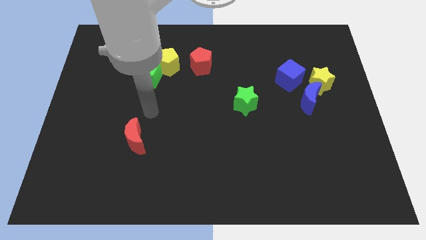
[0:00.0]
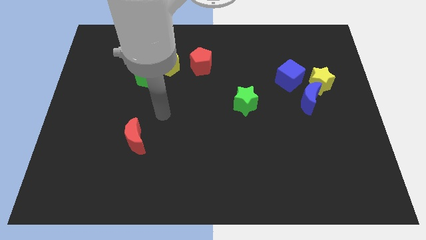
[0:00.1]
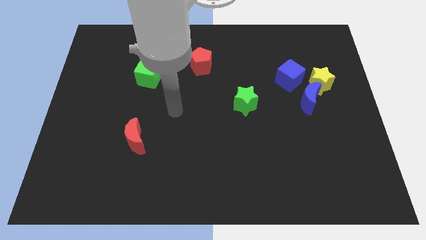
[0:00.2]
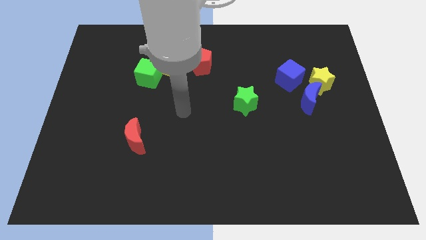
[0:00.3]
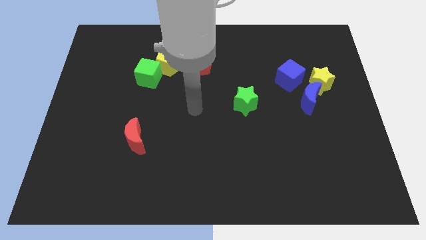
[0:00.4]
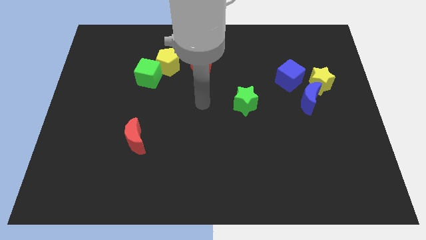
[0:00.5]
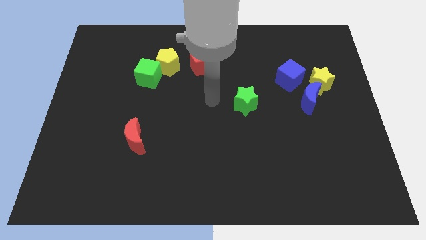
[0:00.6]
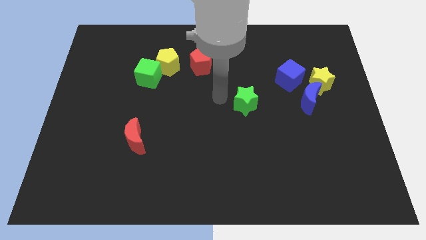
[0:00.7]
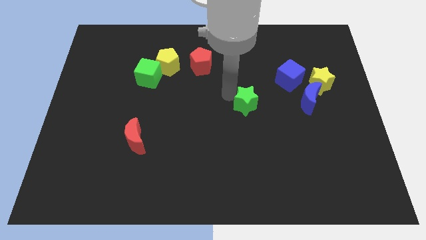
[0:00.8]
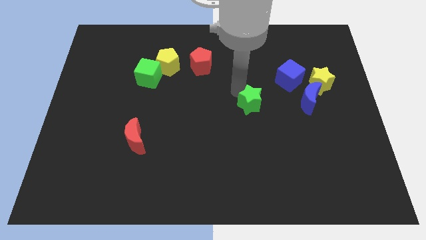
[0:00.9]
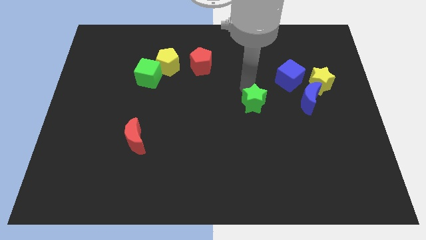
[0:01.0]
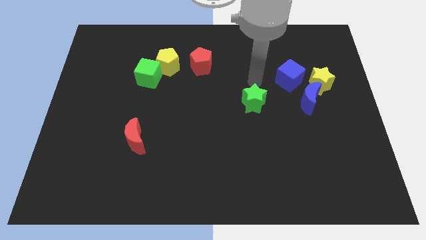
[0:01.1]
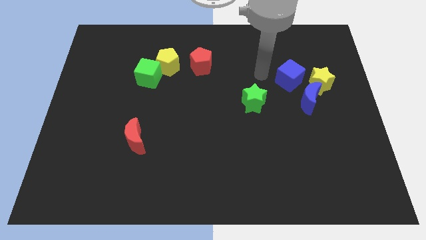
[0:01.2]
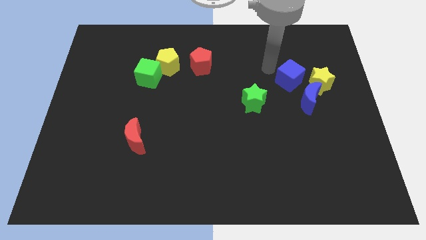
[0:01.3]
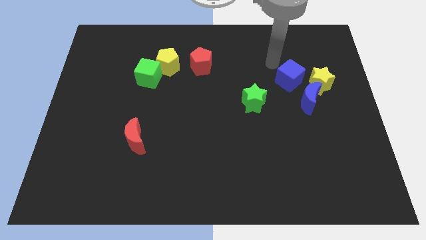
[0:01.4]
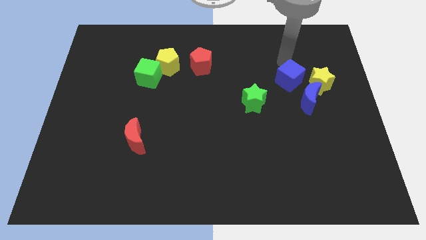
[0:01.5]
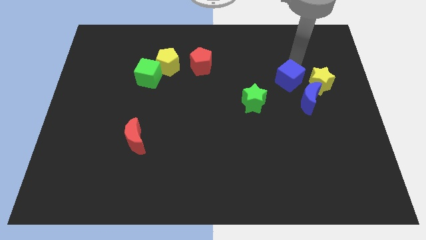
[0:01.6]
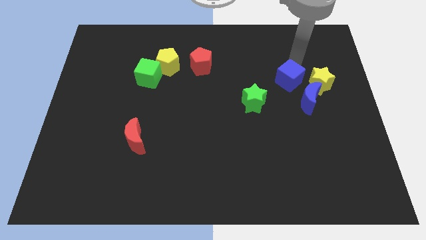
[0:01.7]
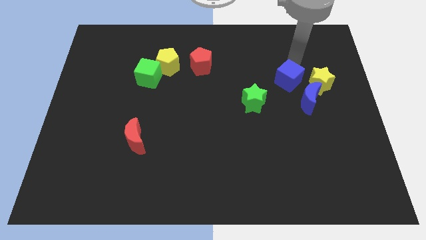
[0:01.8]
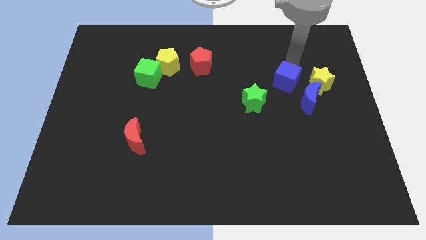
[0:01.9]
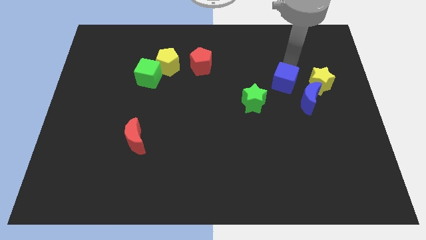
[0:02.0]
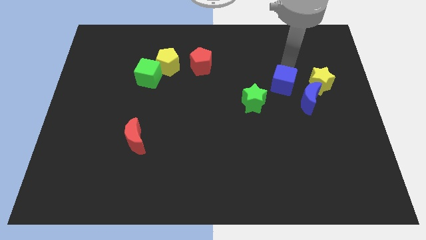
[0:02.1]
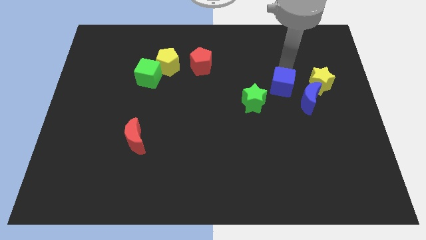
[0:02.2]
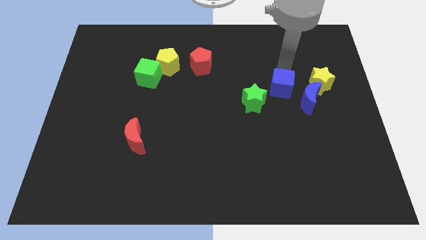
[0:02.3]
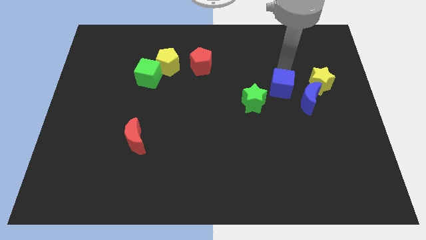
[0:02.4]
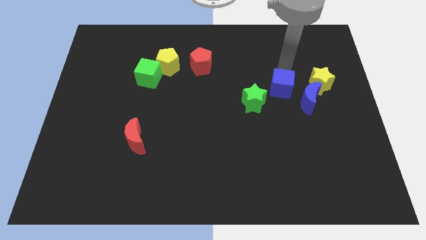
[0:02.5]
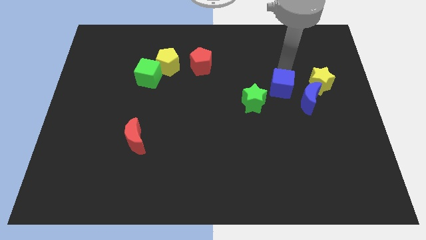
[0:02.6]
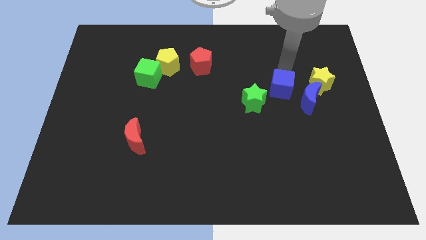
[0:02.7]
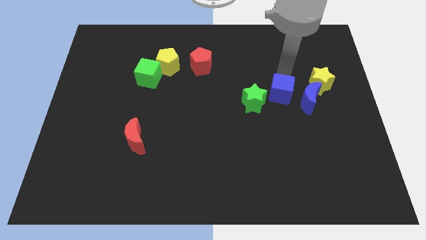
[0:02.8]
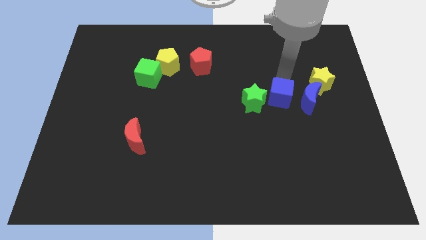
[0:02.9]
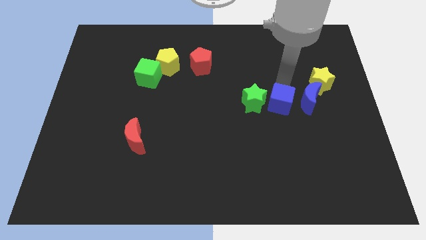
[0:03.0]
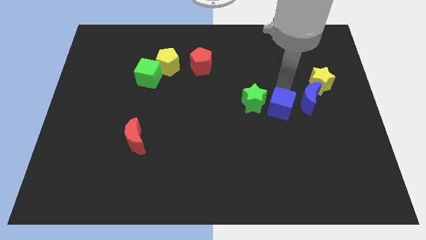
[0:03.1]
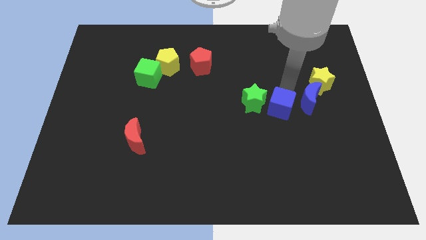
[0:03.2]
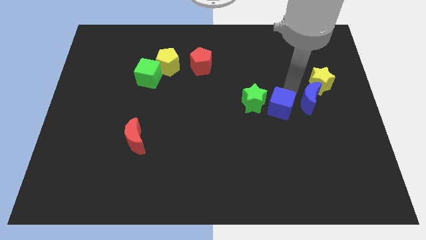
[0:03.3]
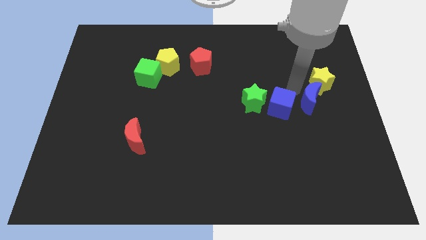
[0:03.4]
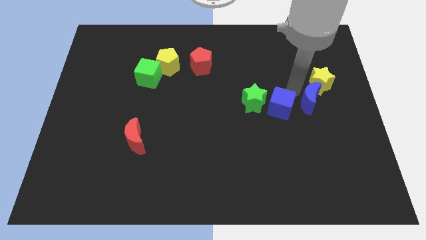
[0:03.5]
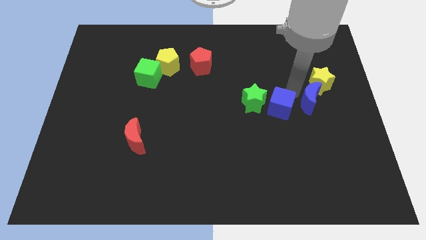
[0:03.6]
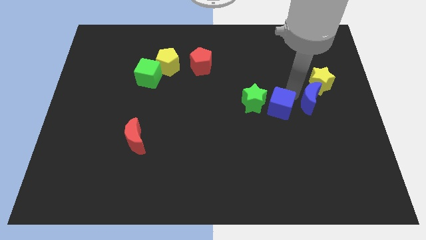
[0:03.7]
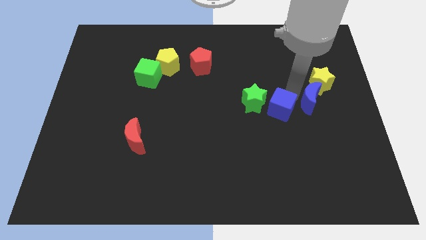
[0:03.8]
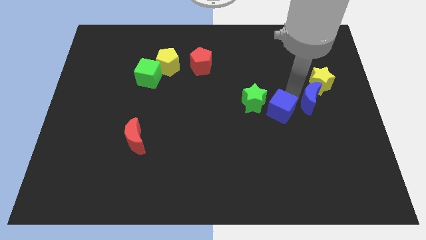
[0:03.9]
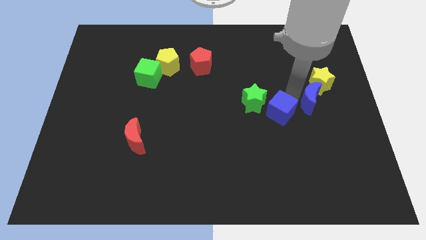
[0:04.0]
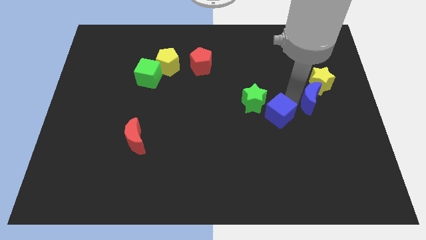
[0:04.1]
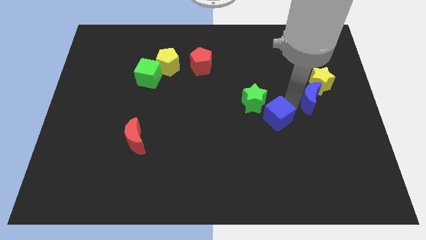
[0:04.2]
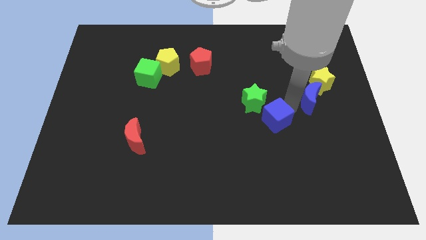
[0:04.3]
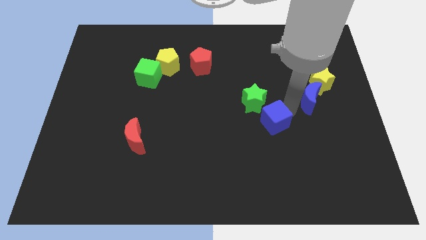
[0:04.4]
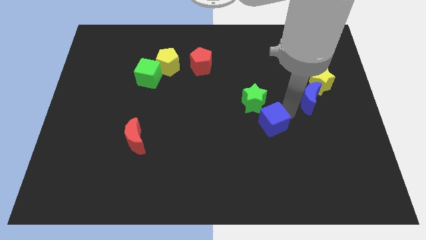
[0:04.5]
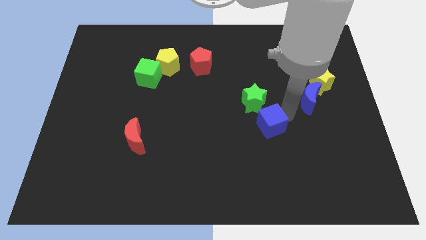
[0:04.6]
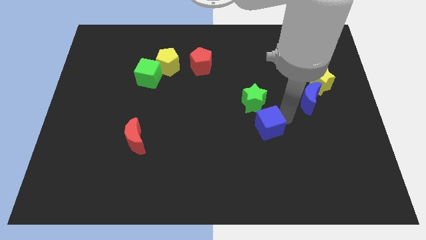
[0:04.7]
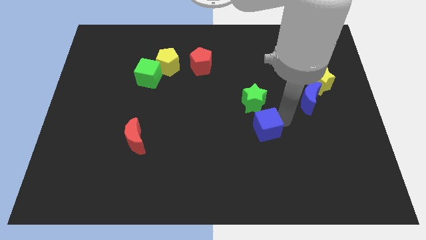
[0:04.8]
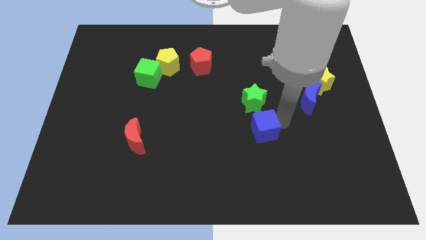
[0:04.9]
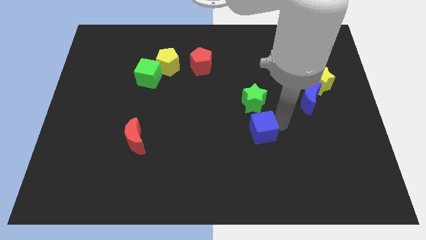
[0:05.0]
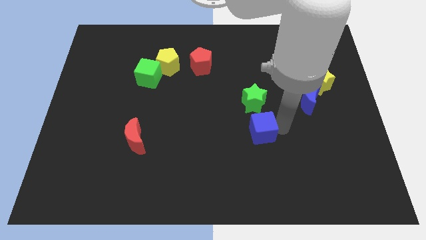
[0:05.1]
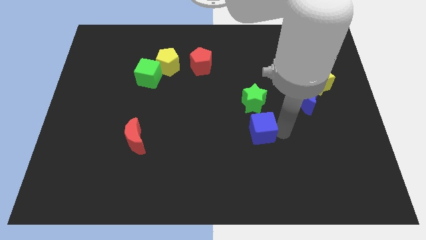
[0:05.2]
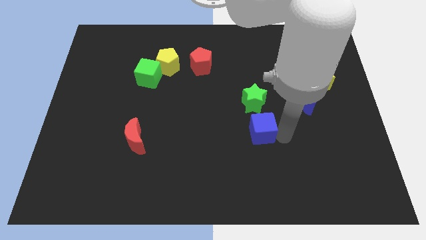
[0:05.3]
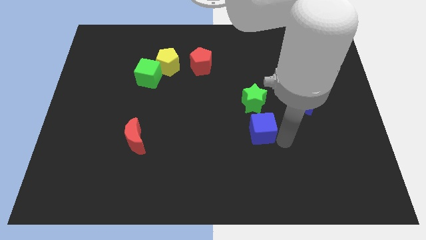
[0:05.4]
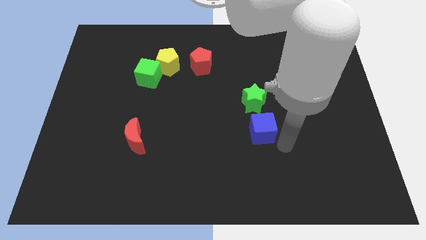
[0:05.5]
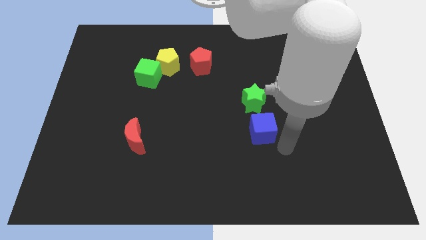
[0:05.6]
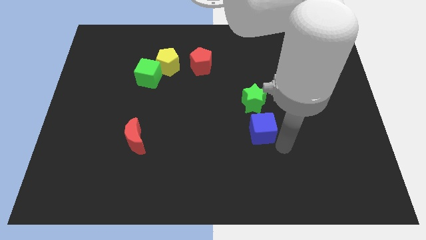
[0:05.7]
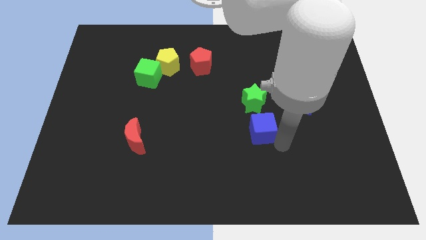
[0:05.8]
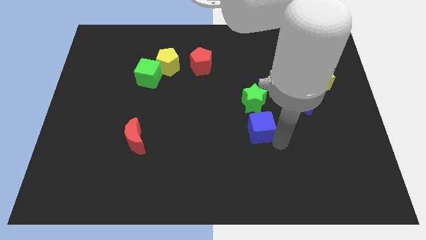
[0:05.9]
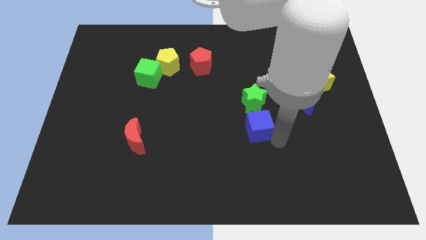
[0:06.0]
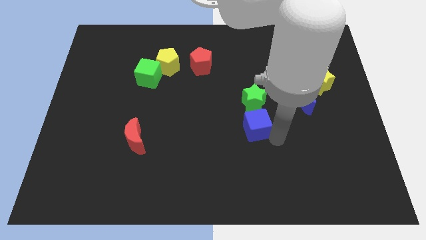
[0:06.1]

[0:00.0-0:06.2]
move the blue cube to the bottom left of the green star

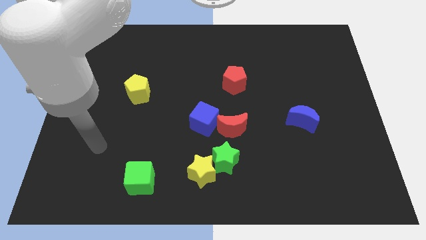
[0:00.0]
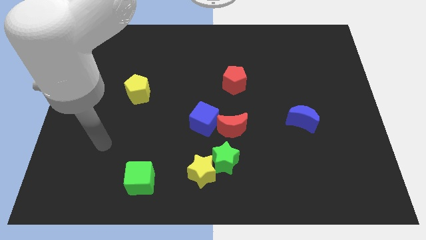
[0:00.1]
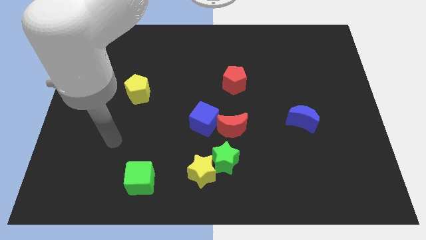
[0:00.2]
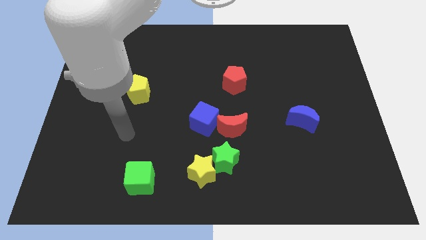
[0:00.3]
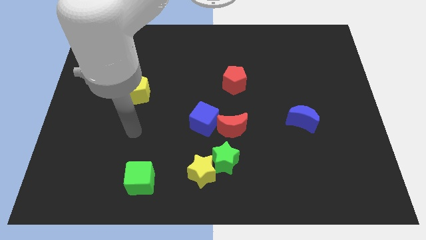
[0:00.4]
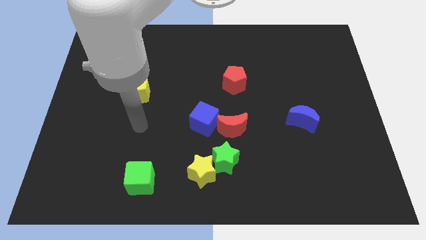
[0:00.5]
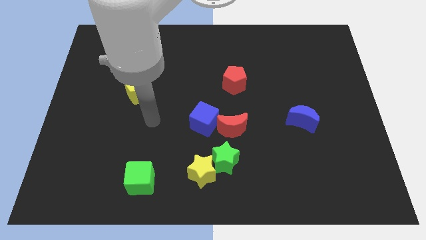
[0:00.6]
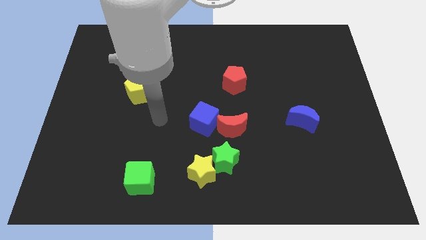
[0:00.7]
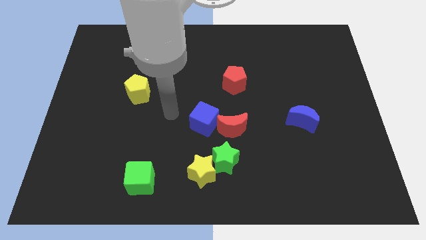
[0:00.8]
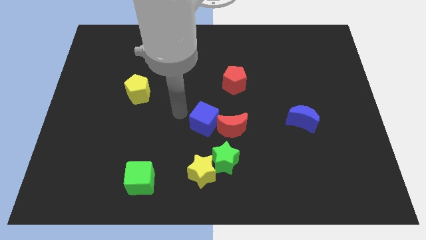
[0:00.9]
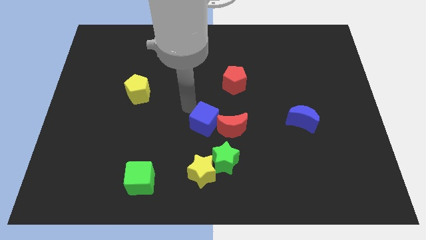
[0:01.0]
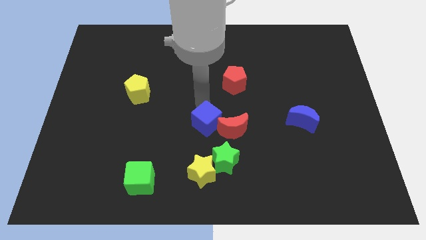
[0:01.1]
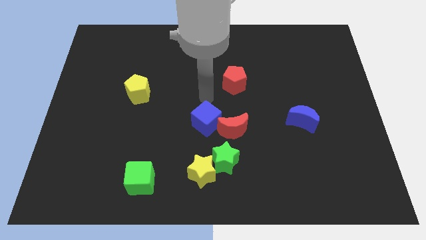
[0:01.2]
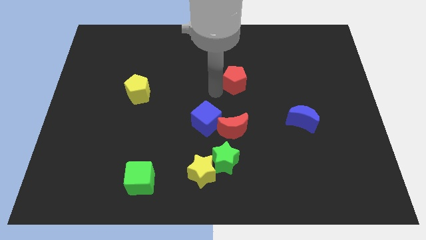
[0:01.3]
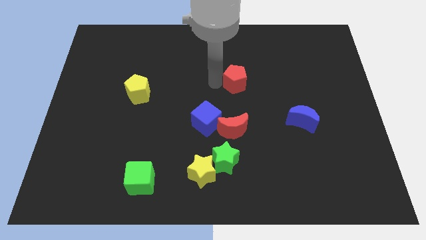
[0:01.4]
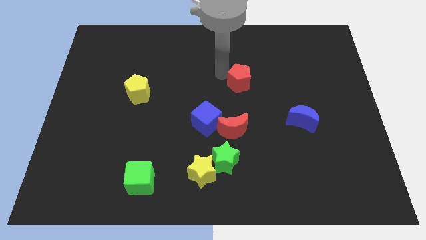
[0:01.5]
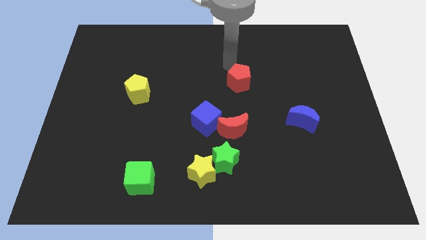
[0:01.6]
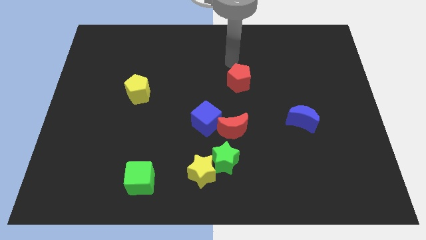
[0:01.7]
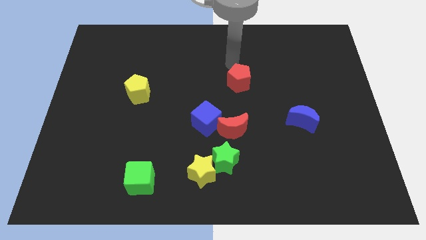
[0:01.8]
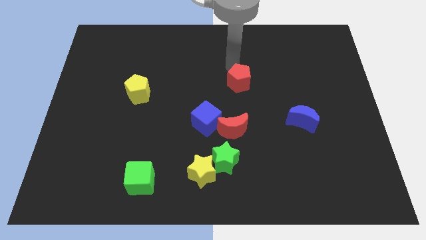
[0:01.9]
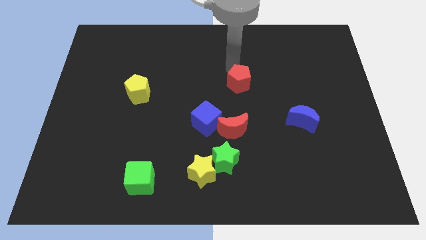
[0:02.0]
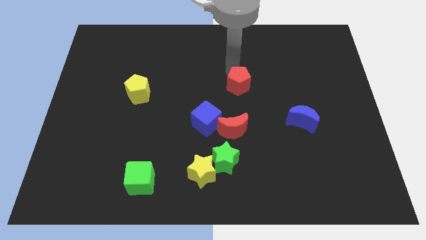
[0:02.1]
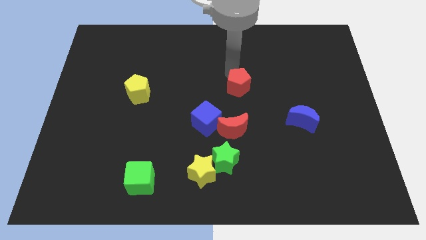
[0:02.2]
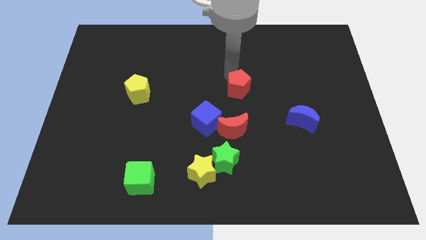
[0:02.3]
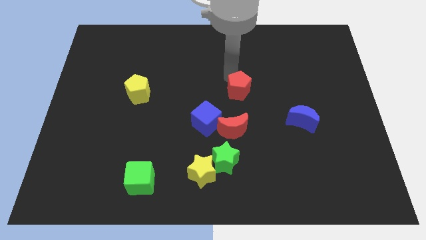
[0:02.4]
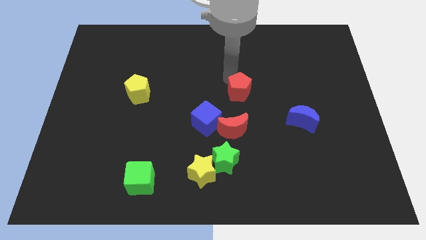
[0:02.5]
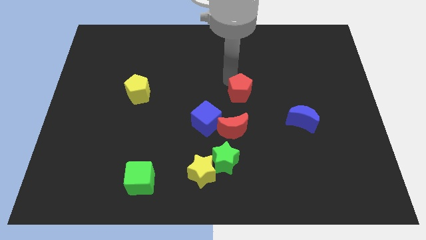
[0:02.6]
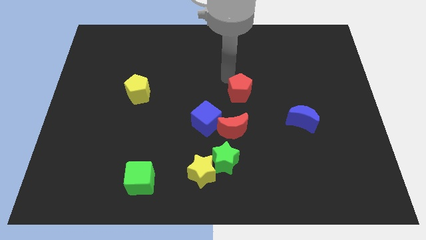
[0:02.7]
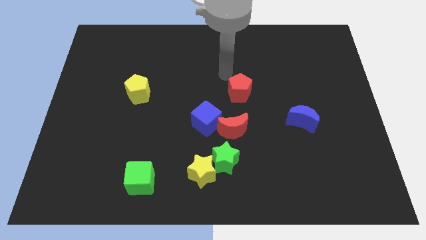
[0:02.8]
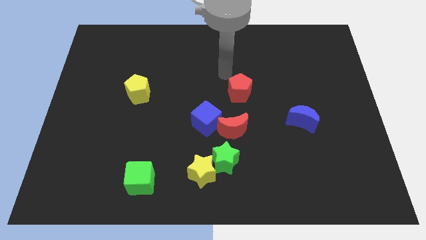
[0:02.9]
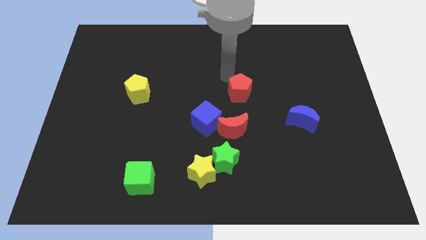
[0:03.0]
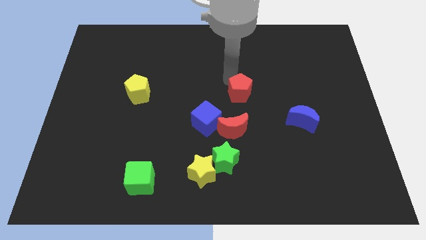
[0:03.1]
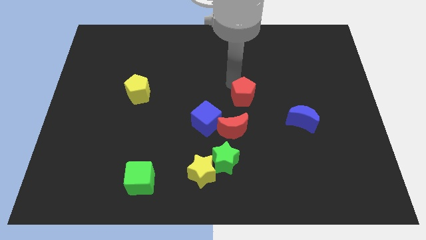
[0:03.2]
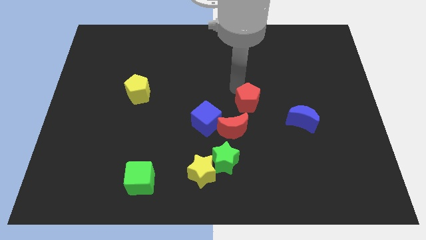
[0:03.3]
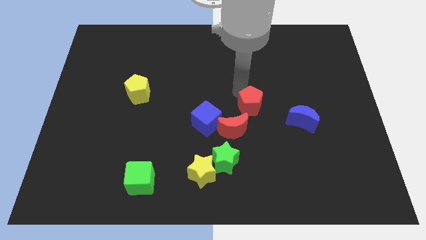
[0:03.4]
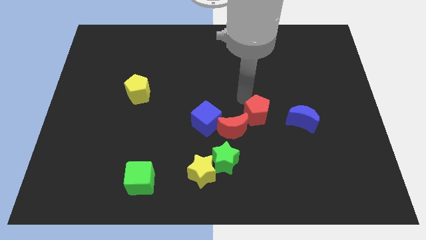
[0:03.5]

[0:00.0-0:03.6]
put the red pentagon to the right side of the red moon
